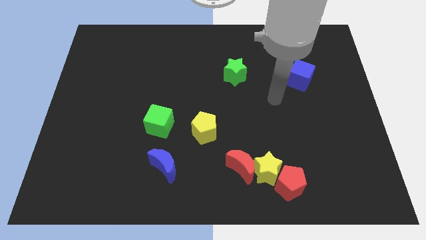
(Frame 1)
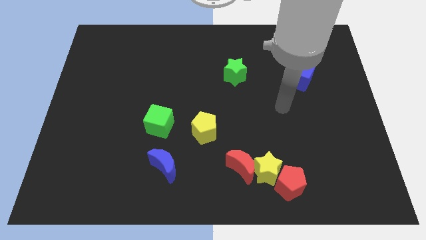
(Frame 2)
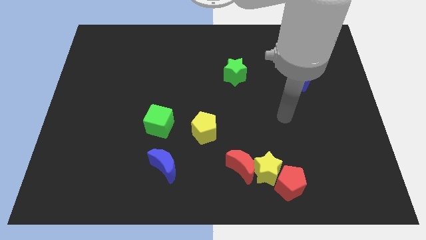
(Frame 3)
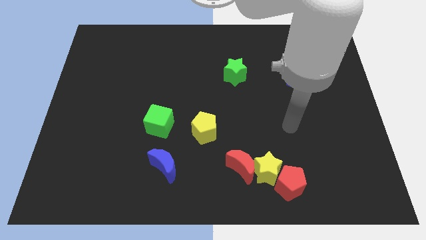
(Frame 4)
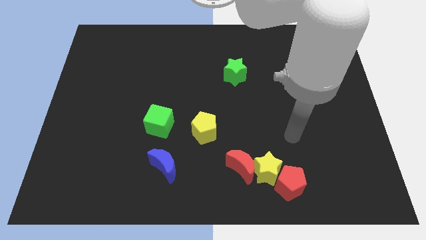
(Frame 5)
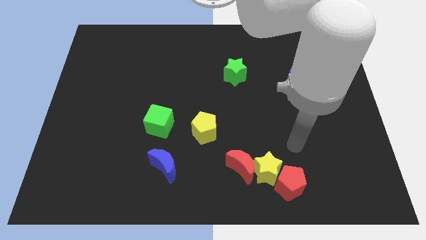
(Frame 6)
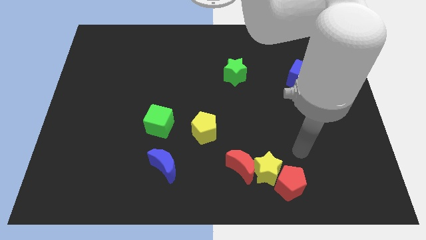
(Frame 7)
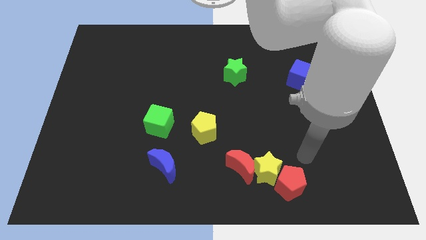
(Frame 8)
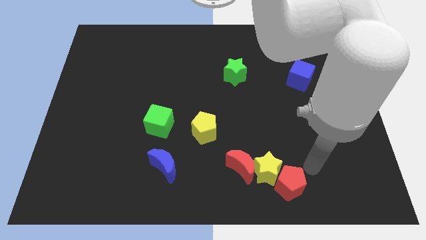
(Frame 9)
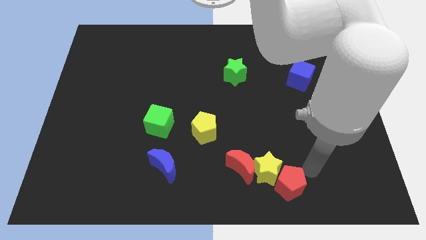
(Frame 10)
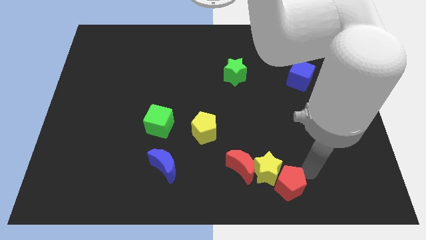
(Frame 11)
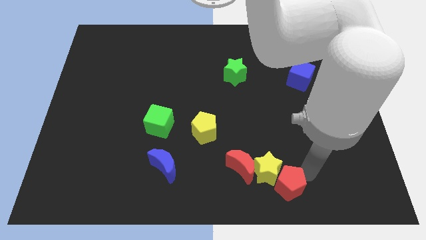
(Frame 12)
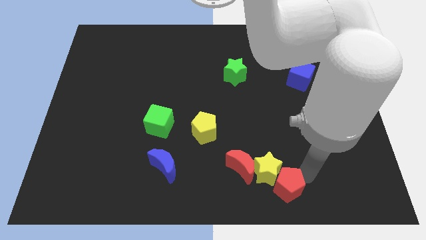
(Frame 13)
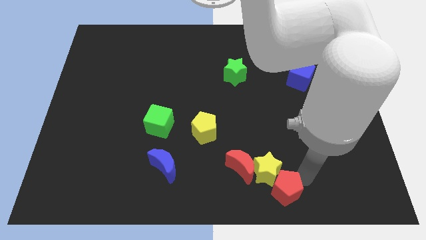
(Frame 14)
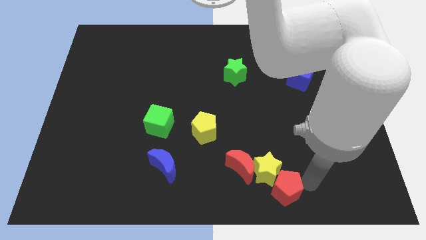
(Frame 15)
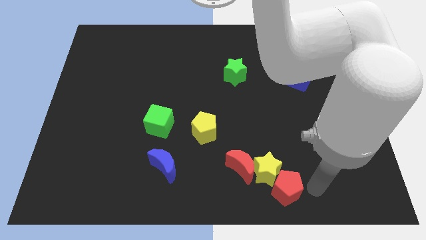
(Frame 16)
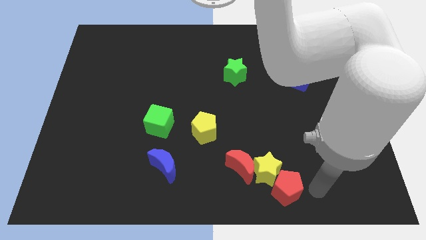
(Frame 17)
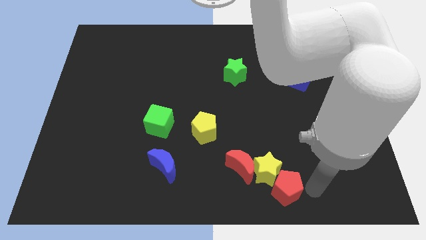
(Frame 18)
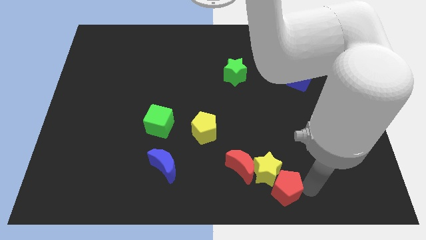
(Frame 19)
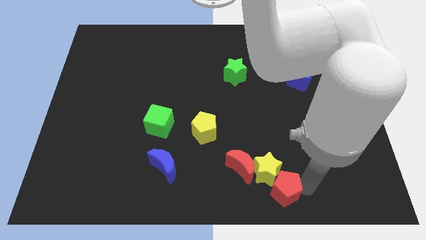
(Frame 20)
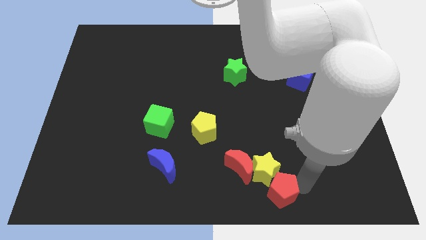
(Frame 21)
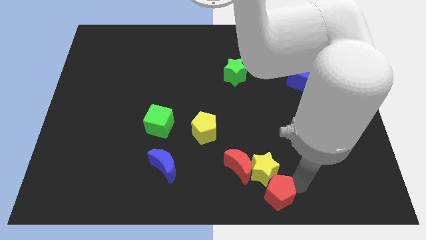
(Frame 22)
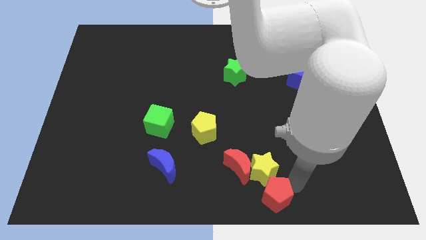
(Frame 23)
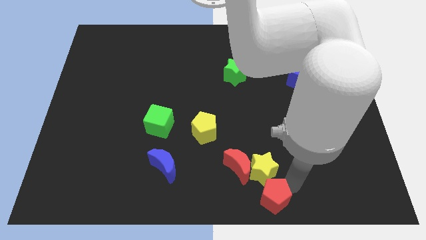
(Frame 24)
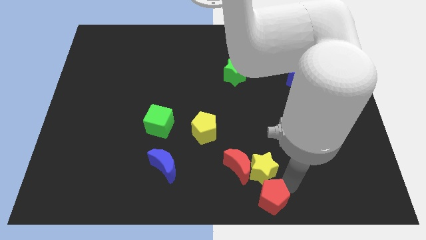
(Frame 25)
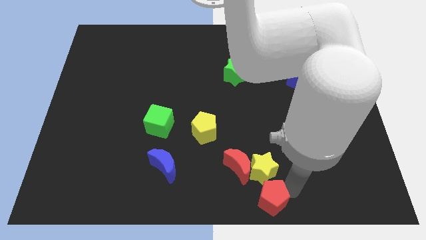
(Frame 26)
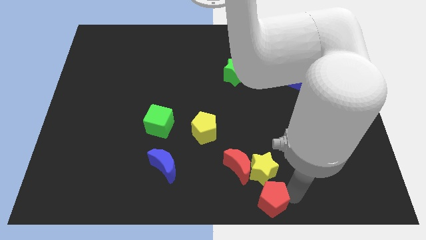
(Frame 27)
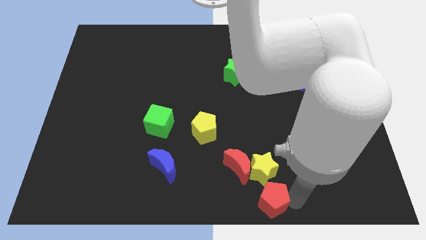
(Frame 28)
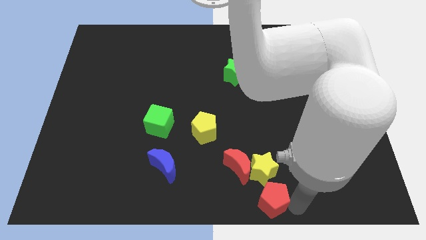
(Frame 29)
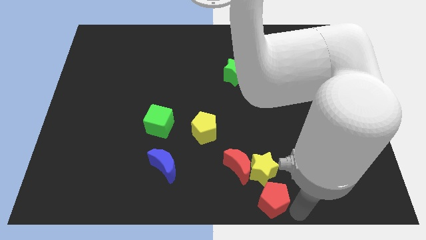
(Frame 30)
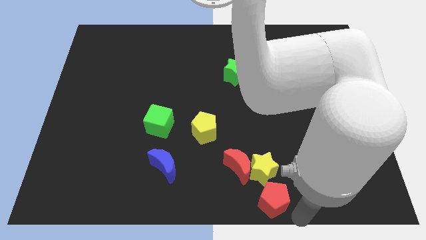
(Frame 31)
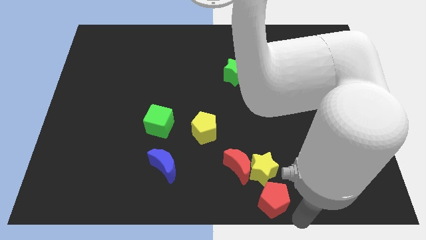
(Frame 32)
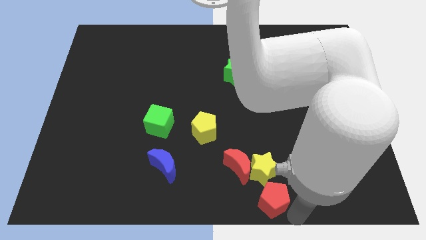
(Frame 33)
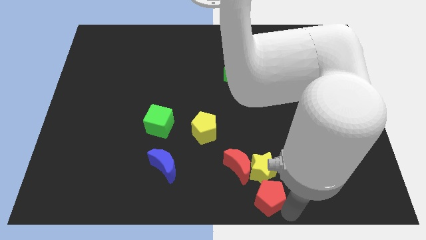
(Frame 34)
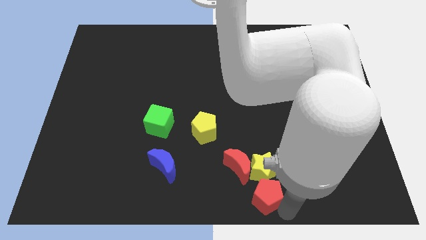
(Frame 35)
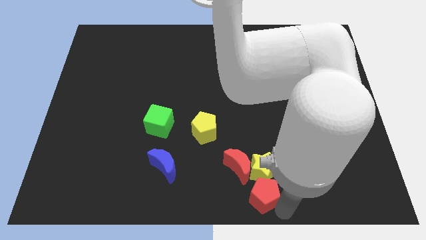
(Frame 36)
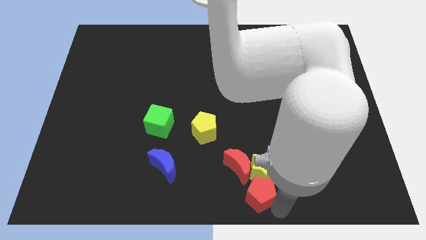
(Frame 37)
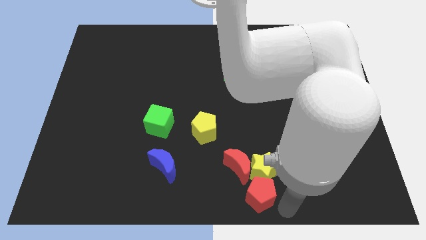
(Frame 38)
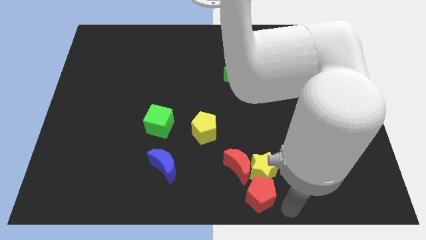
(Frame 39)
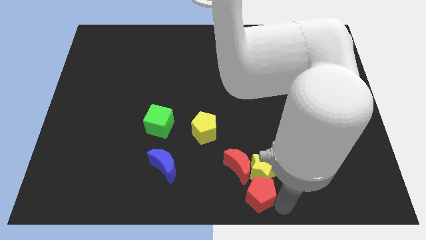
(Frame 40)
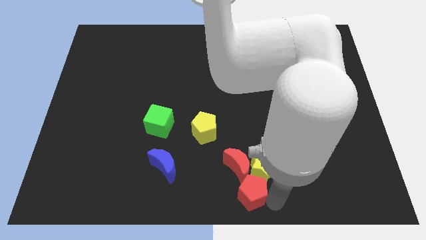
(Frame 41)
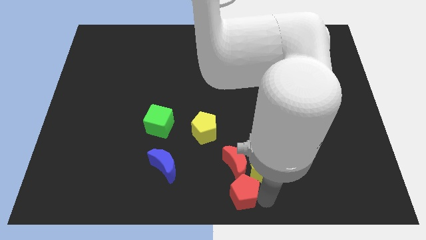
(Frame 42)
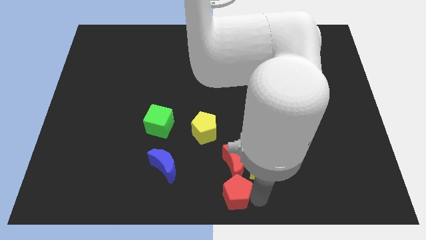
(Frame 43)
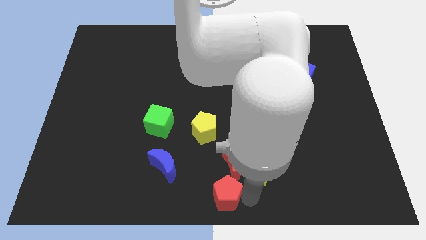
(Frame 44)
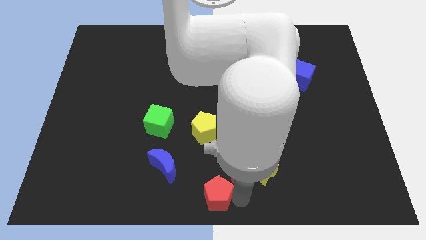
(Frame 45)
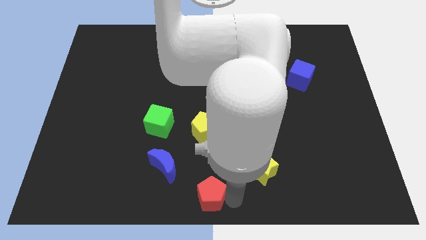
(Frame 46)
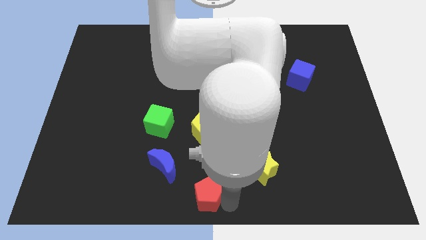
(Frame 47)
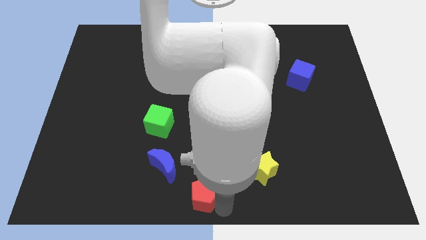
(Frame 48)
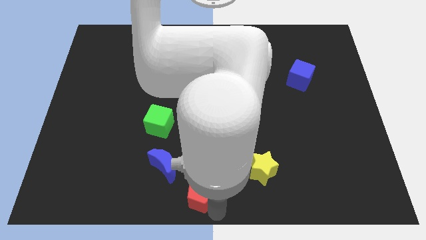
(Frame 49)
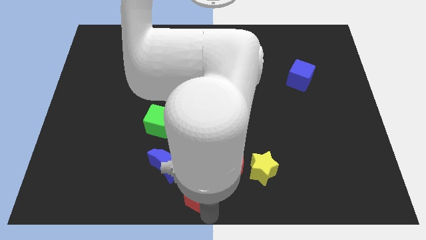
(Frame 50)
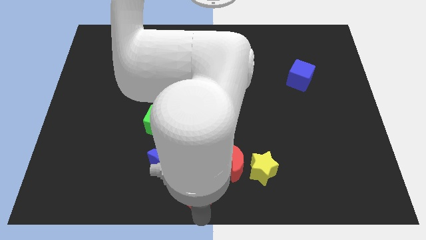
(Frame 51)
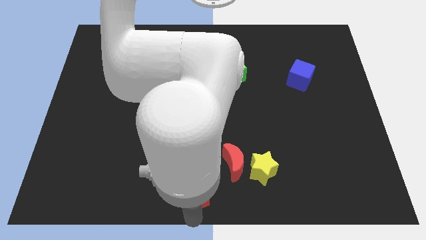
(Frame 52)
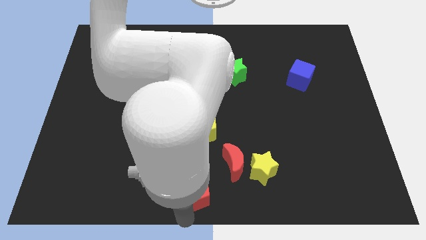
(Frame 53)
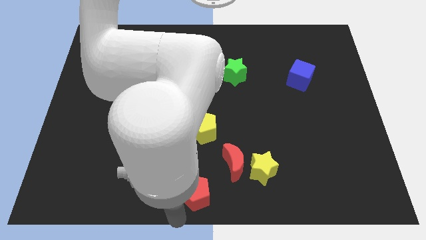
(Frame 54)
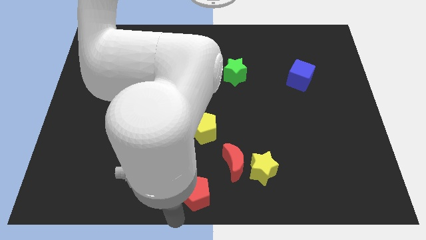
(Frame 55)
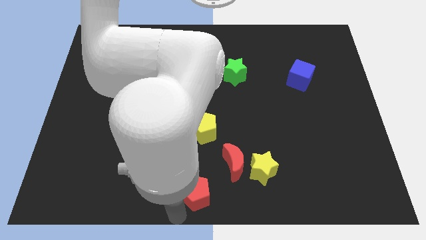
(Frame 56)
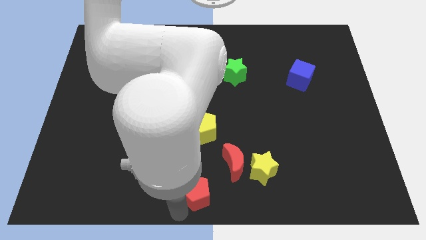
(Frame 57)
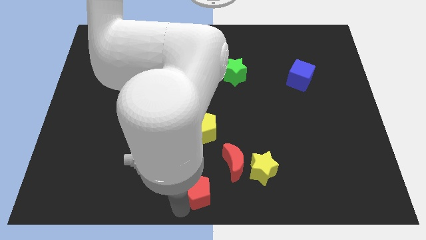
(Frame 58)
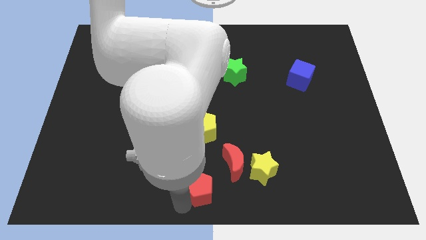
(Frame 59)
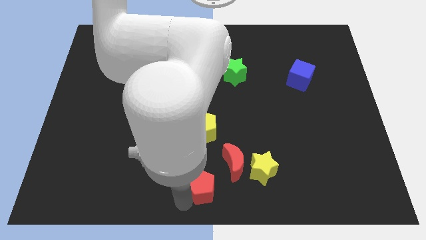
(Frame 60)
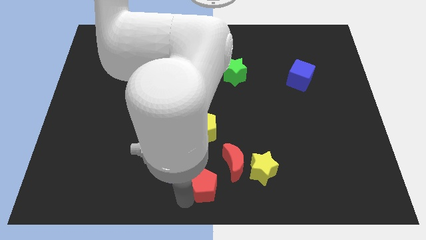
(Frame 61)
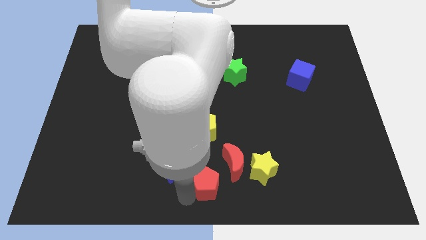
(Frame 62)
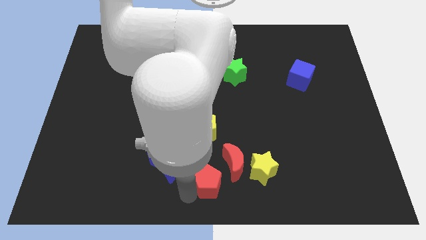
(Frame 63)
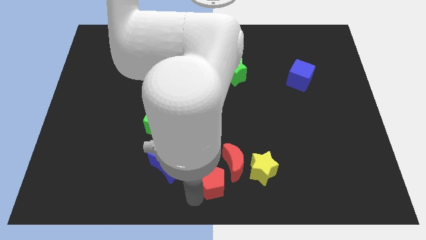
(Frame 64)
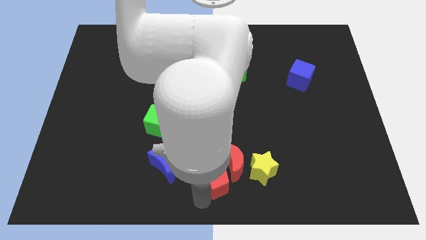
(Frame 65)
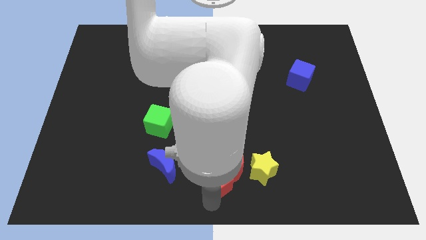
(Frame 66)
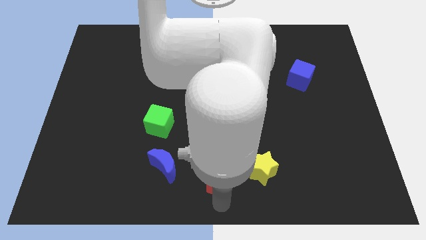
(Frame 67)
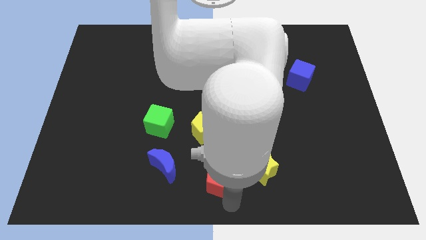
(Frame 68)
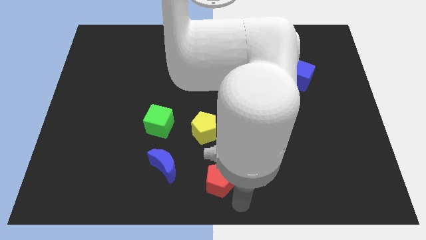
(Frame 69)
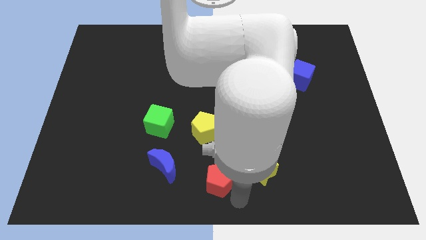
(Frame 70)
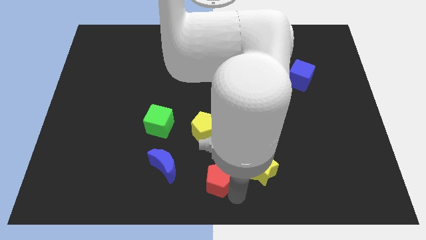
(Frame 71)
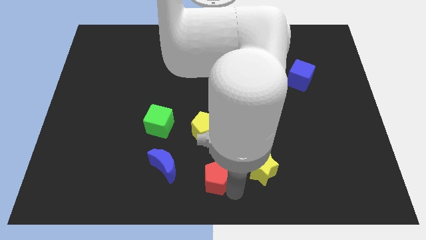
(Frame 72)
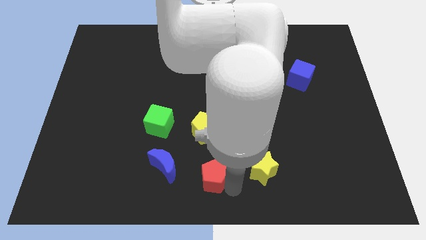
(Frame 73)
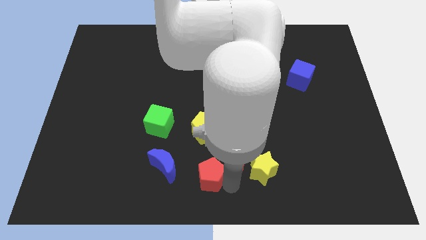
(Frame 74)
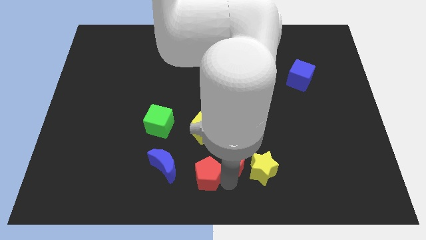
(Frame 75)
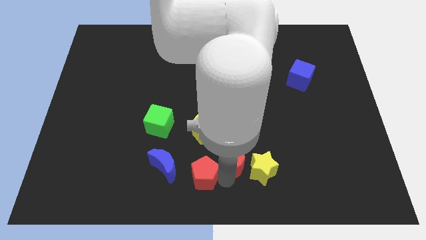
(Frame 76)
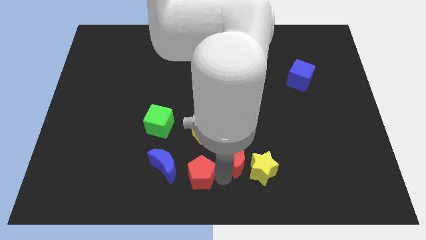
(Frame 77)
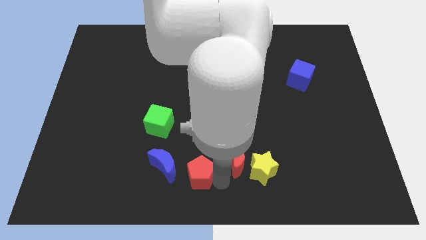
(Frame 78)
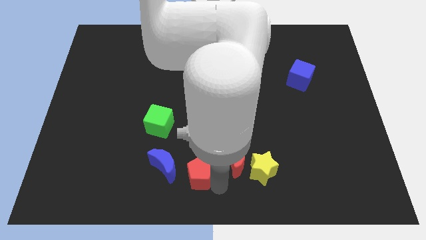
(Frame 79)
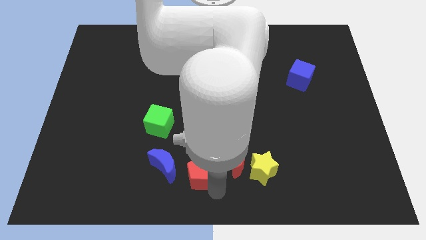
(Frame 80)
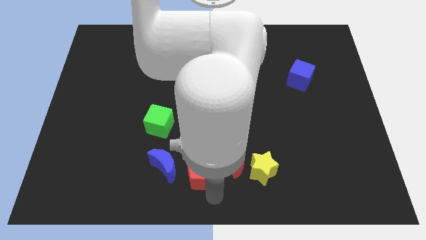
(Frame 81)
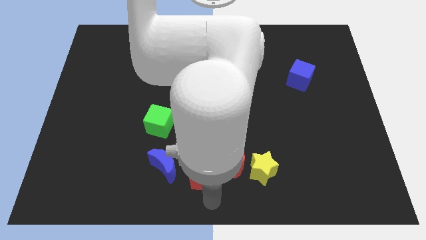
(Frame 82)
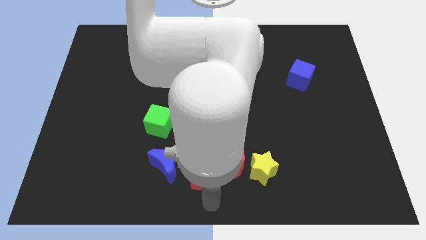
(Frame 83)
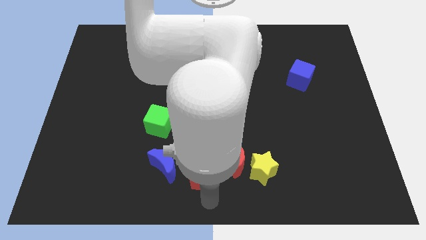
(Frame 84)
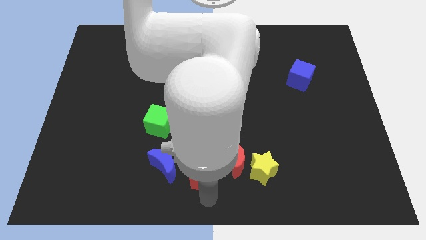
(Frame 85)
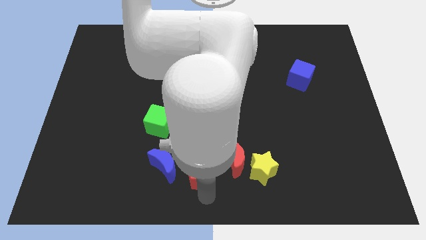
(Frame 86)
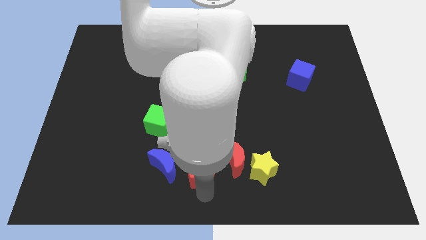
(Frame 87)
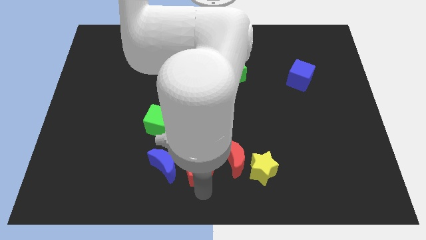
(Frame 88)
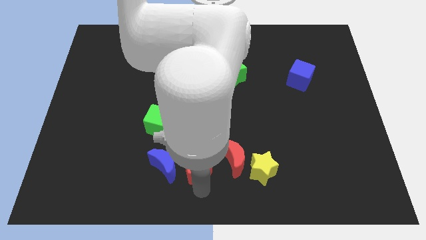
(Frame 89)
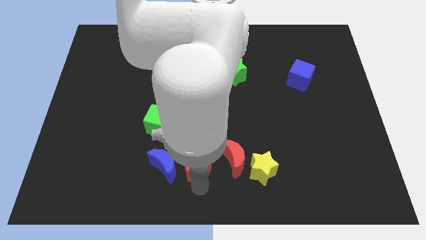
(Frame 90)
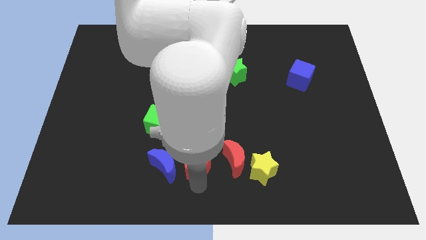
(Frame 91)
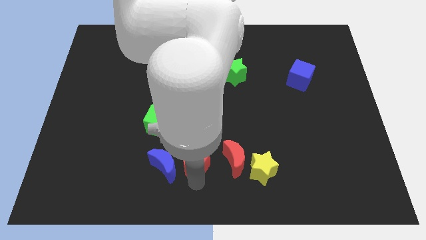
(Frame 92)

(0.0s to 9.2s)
slide the red pentagon to the bottom right side of the green cube
